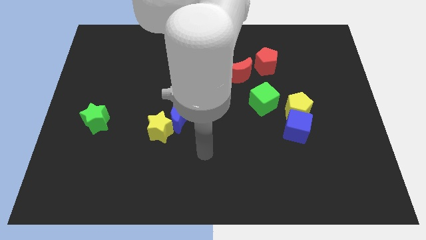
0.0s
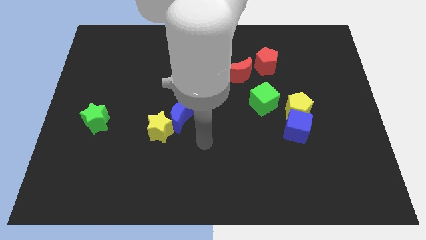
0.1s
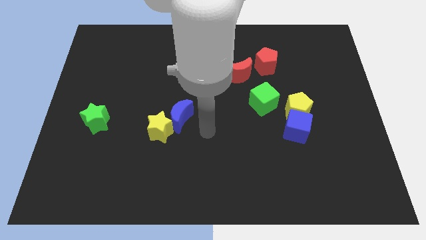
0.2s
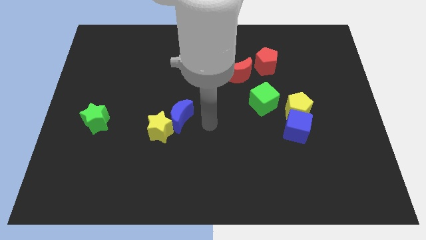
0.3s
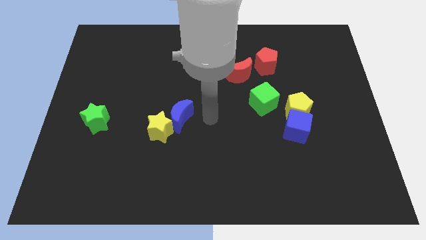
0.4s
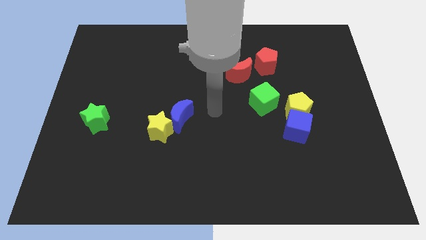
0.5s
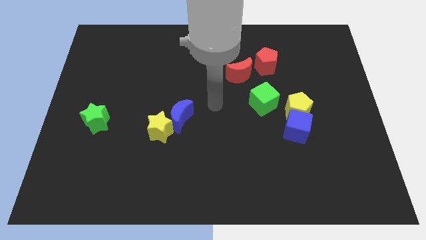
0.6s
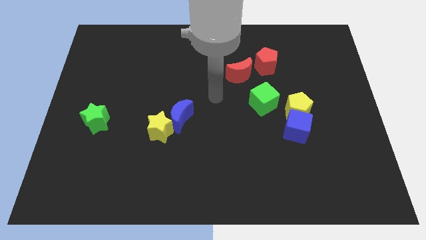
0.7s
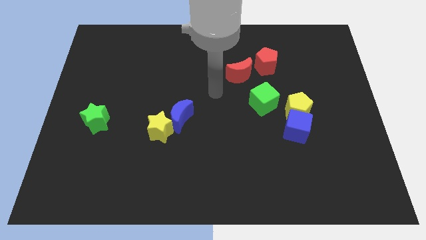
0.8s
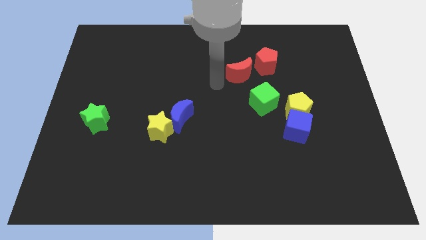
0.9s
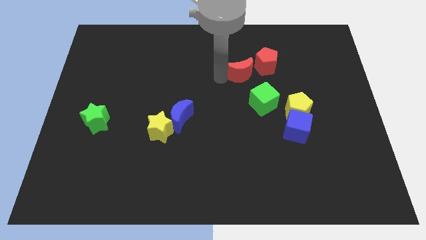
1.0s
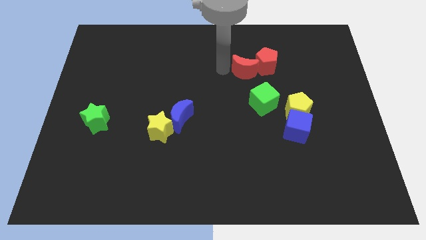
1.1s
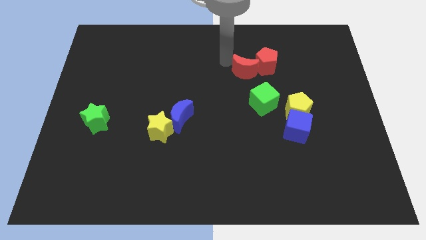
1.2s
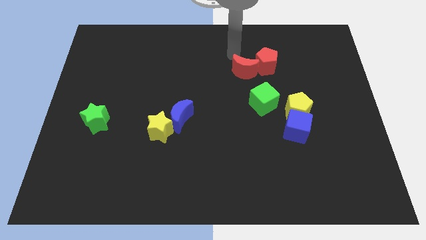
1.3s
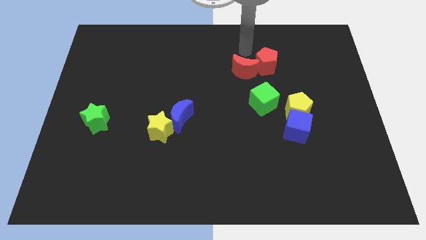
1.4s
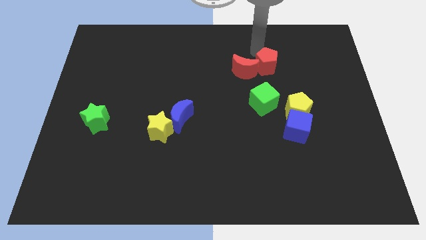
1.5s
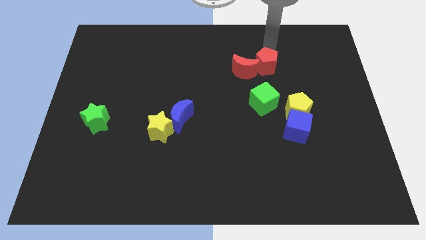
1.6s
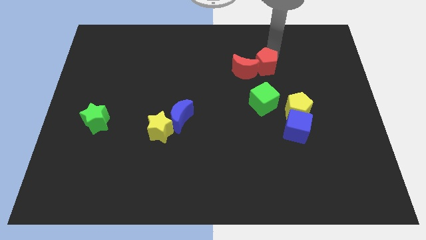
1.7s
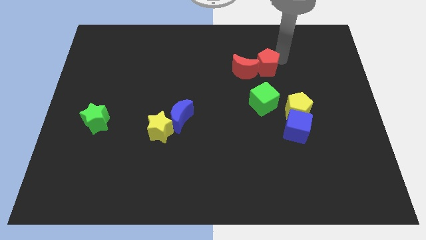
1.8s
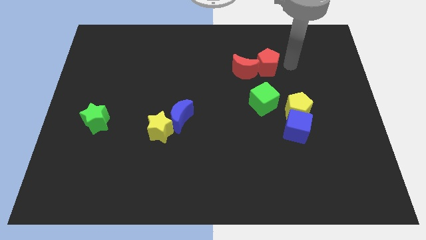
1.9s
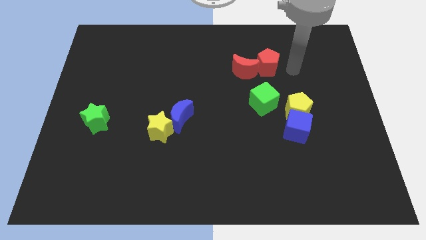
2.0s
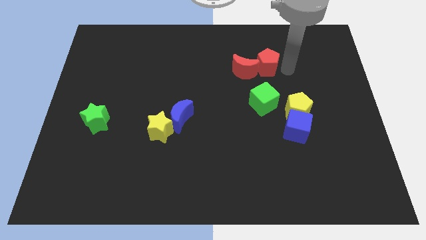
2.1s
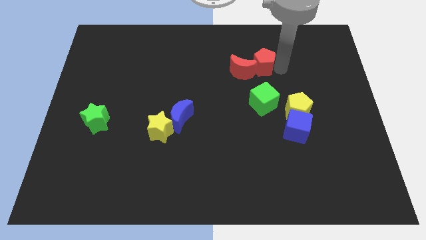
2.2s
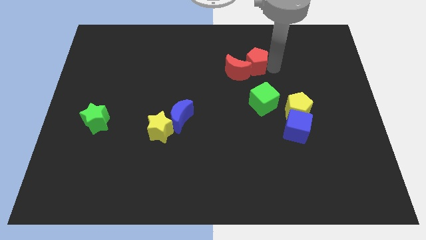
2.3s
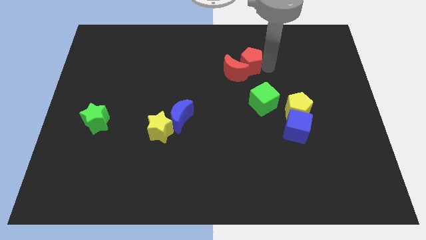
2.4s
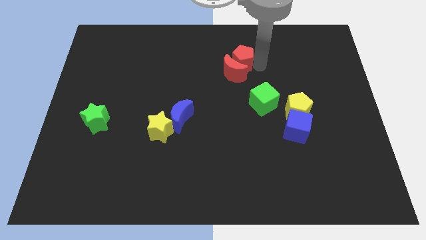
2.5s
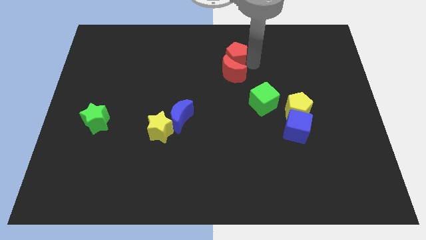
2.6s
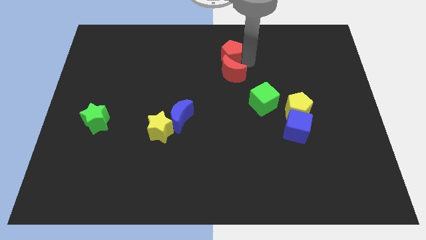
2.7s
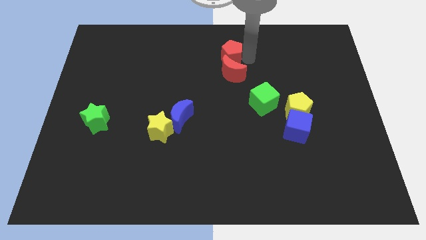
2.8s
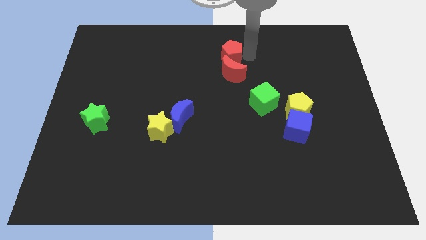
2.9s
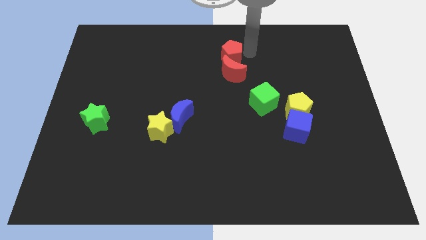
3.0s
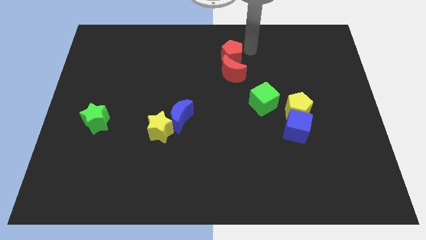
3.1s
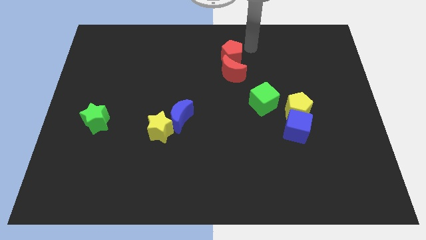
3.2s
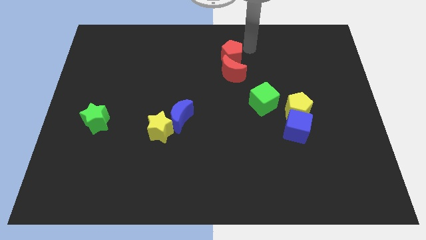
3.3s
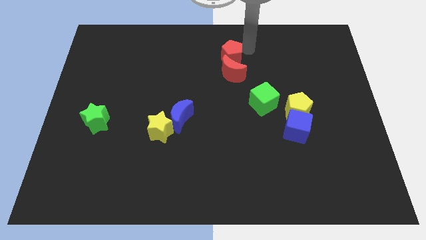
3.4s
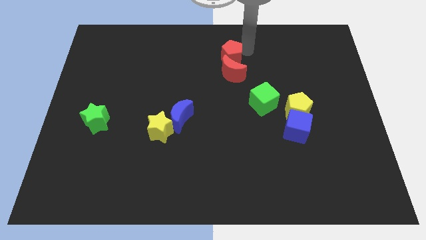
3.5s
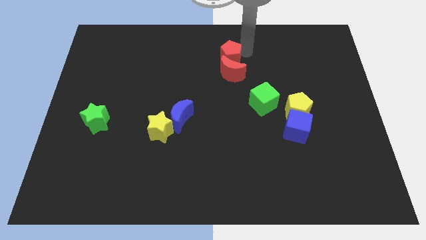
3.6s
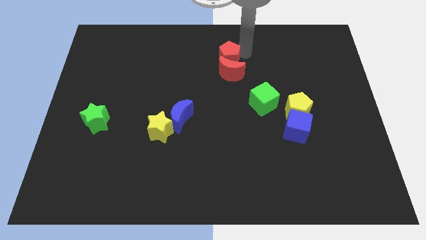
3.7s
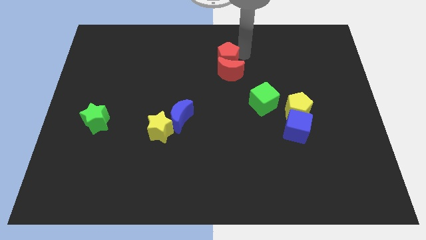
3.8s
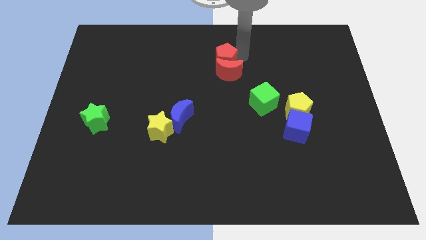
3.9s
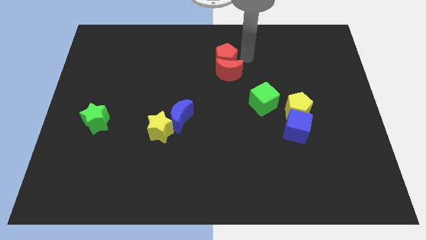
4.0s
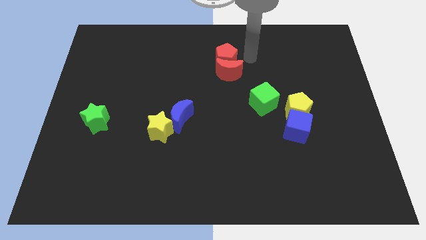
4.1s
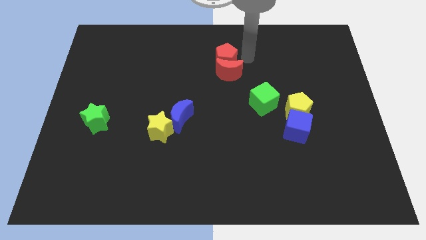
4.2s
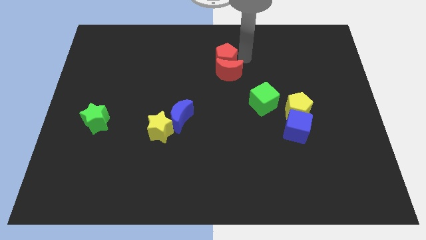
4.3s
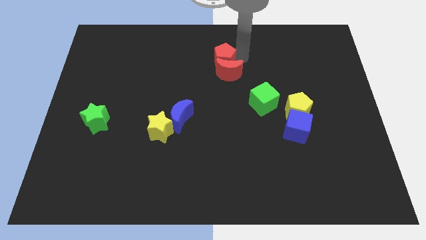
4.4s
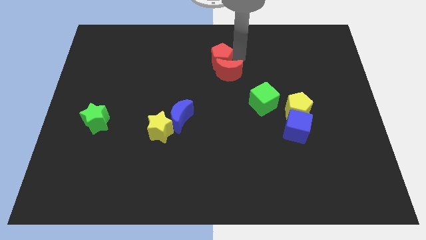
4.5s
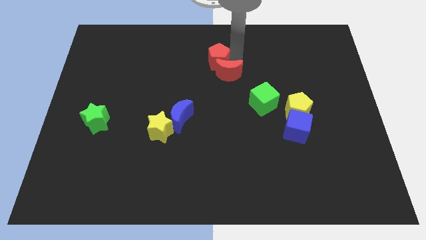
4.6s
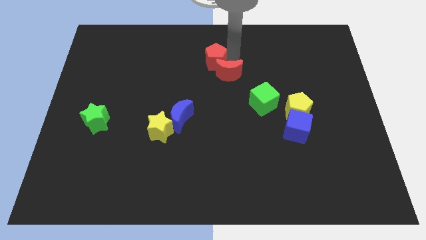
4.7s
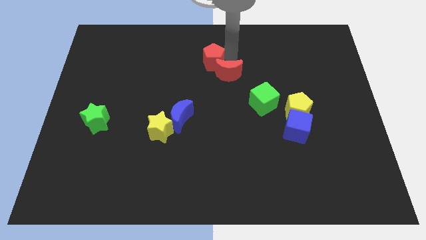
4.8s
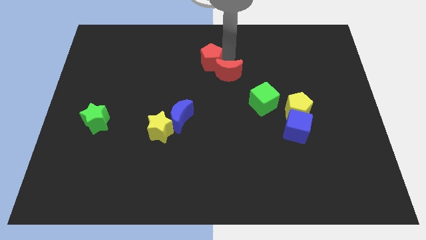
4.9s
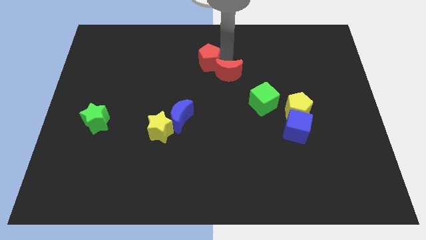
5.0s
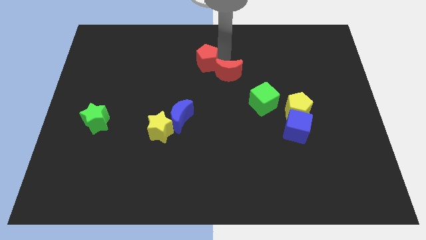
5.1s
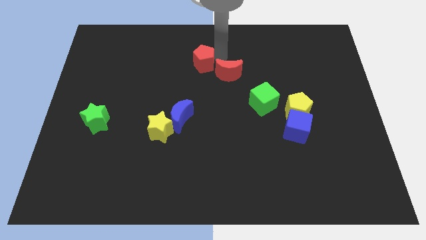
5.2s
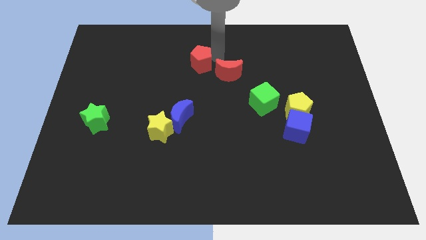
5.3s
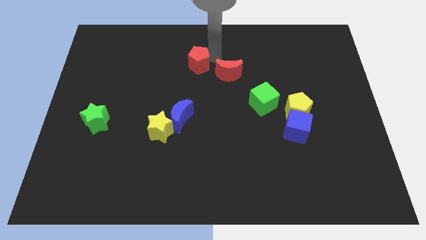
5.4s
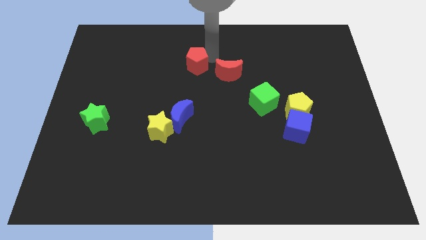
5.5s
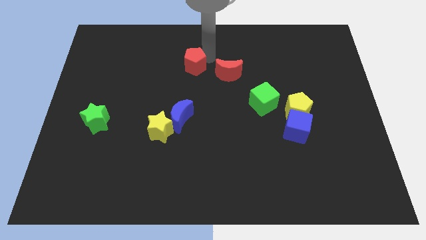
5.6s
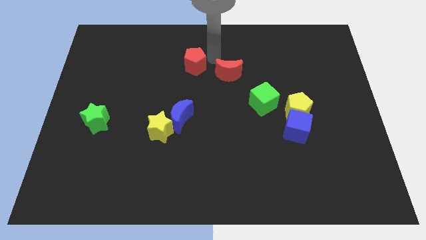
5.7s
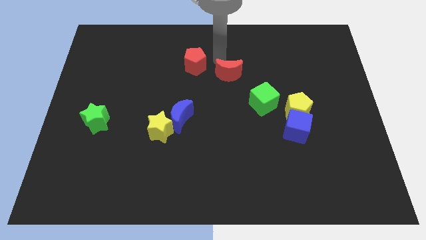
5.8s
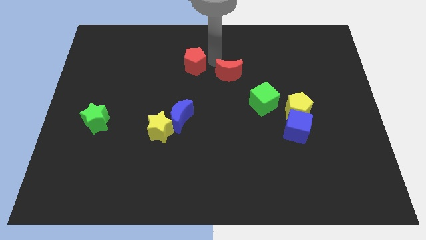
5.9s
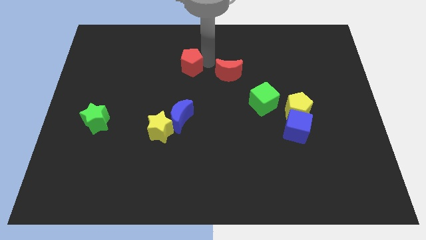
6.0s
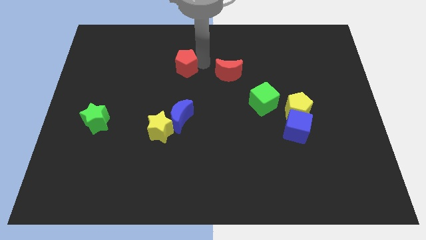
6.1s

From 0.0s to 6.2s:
slide the red pentagon left

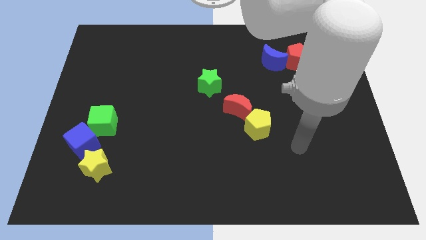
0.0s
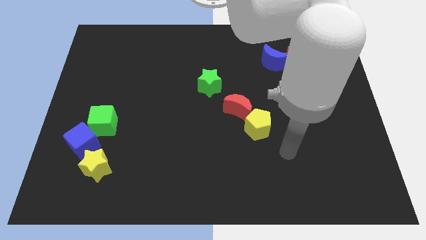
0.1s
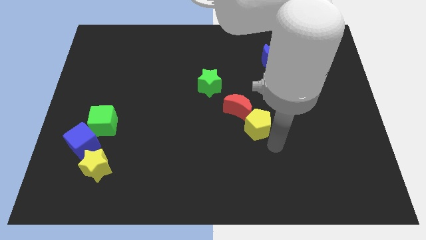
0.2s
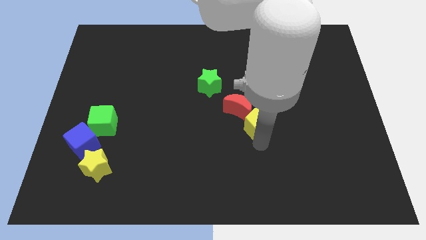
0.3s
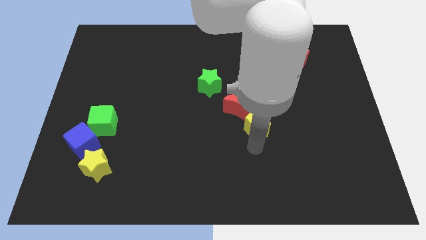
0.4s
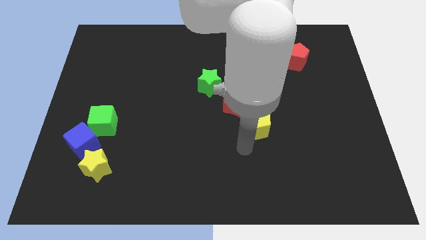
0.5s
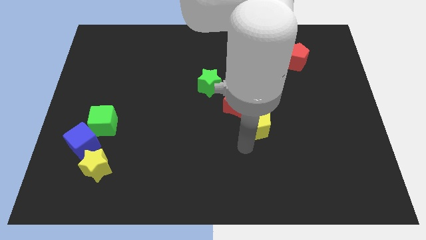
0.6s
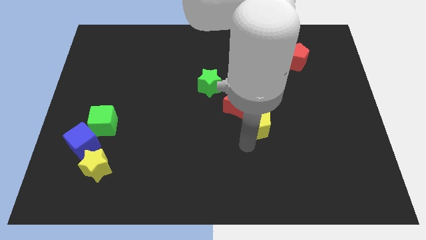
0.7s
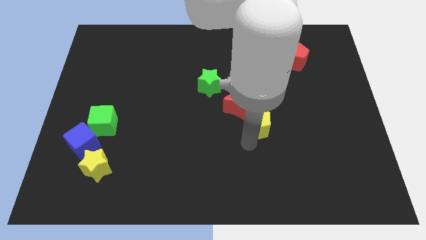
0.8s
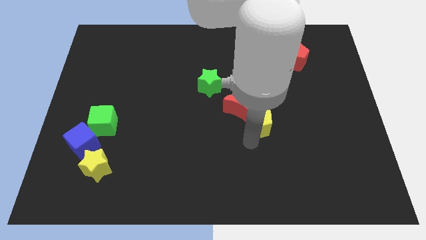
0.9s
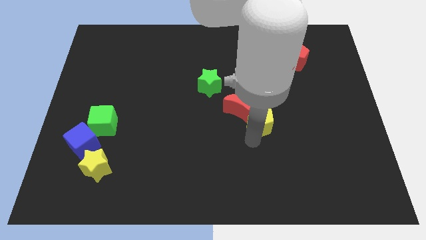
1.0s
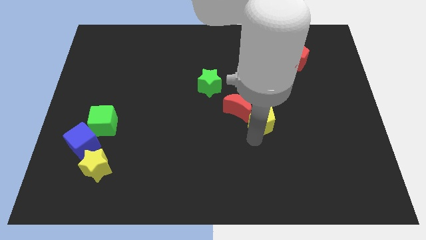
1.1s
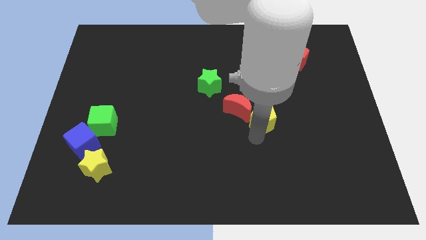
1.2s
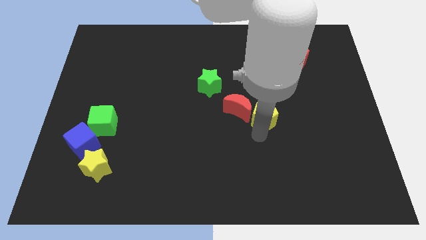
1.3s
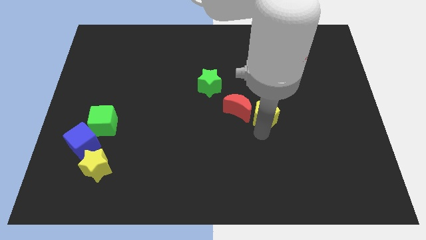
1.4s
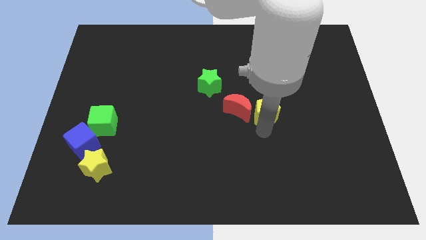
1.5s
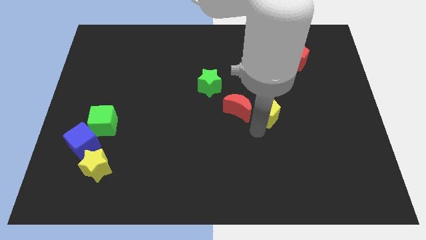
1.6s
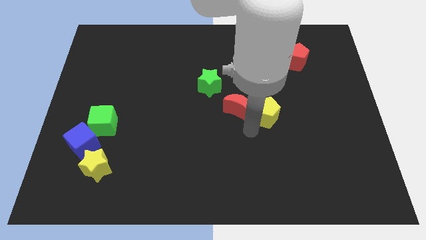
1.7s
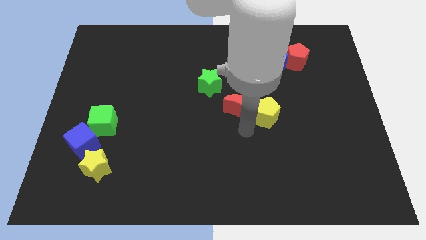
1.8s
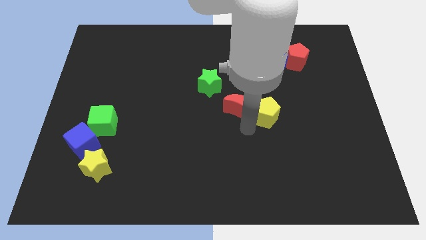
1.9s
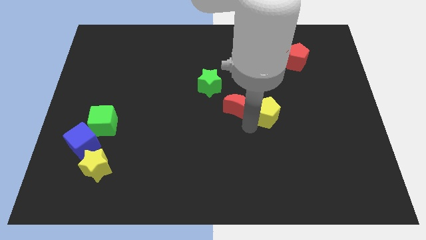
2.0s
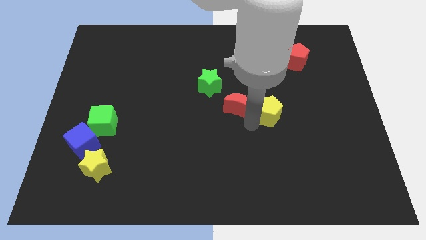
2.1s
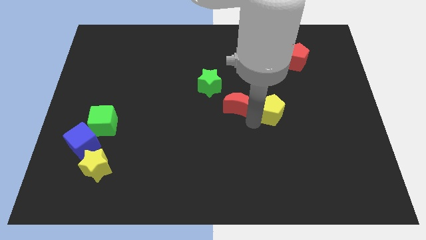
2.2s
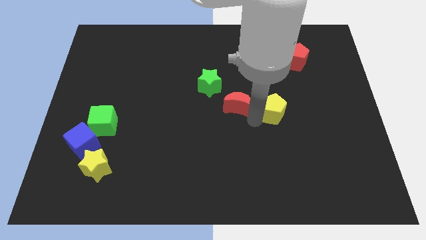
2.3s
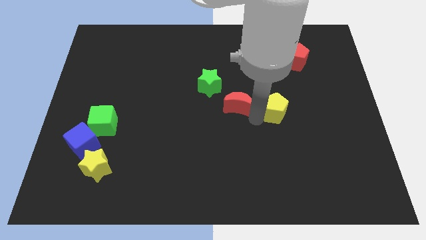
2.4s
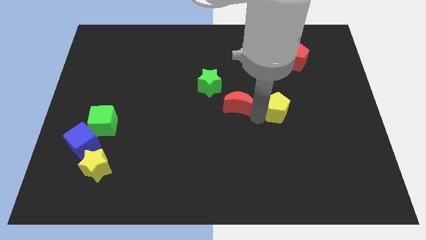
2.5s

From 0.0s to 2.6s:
move the yellow pentagon slightly diagonally up and to the right

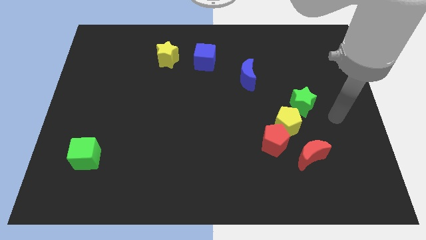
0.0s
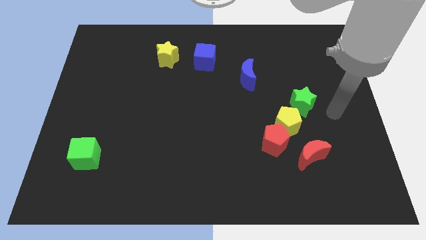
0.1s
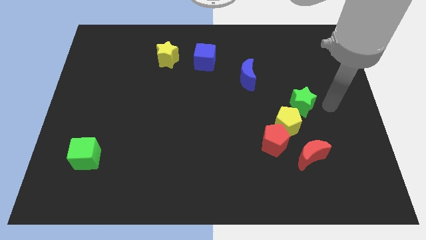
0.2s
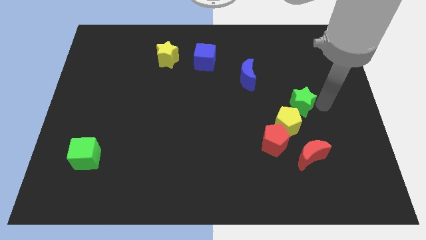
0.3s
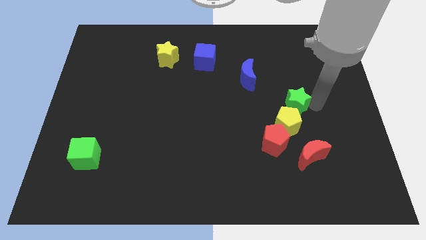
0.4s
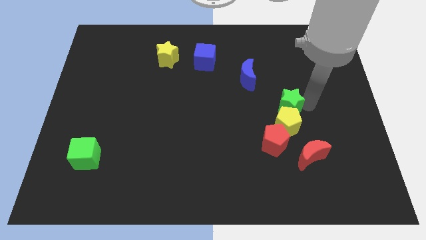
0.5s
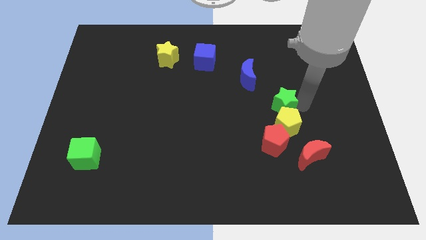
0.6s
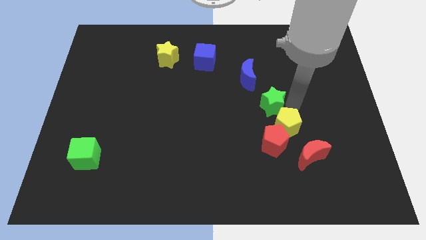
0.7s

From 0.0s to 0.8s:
move the green star left slightly
